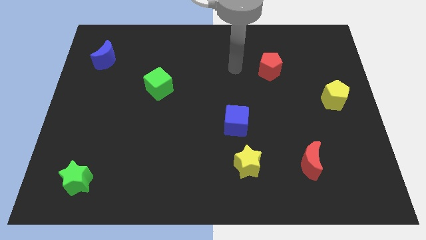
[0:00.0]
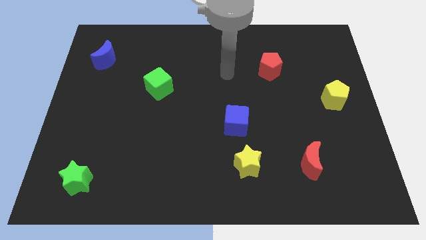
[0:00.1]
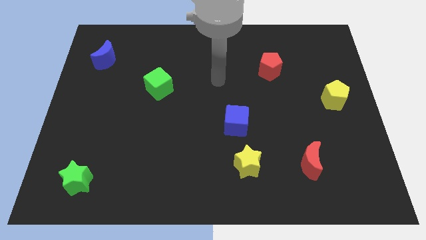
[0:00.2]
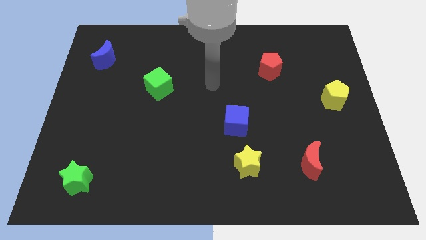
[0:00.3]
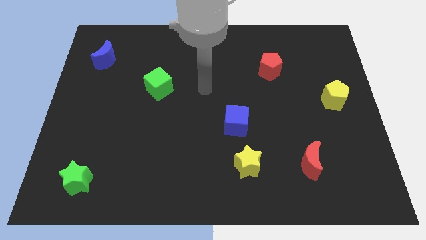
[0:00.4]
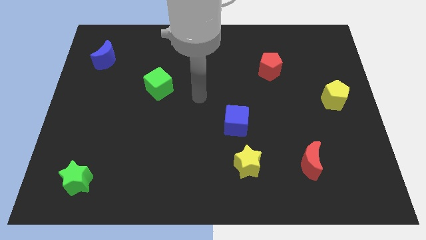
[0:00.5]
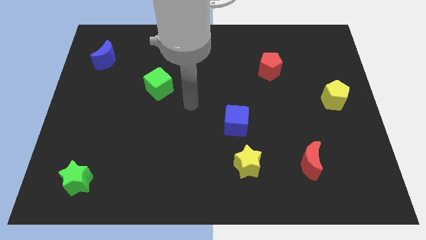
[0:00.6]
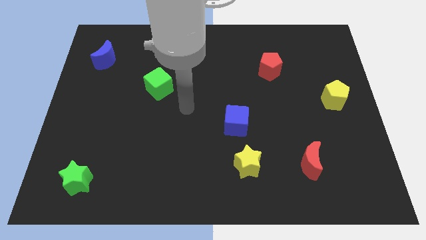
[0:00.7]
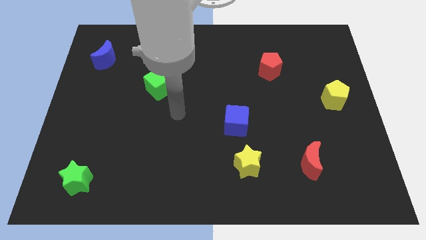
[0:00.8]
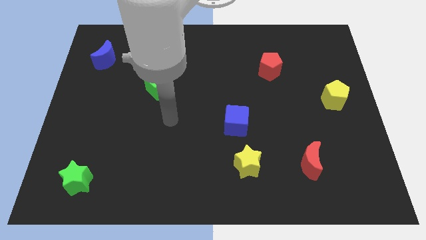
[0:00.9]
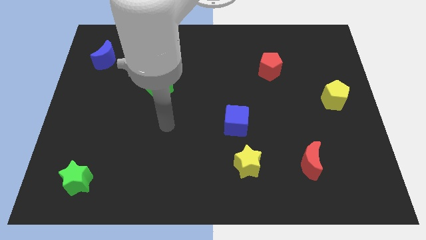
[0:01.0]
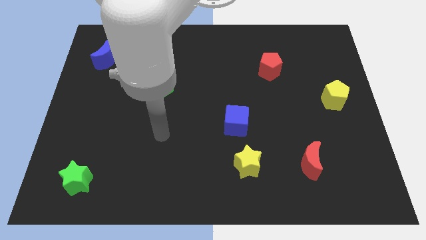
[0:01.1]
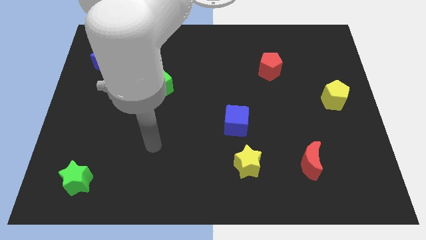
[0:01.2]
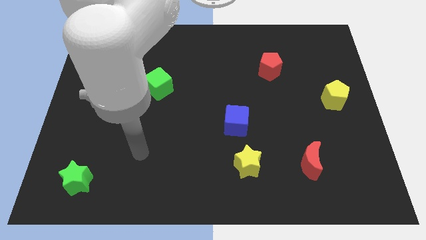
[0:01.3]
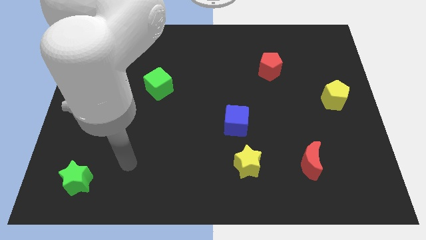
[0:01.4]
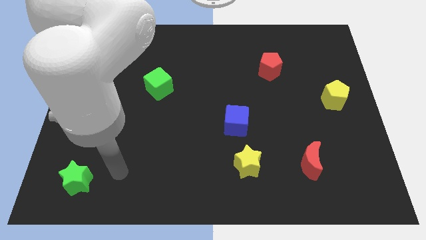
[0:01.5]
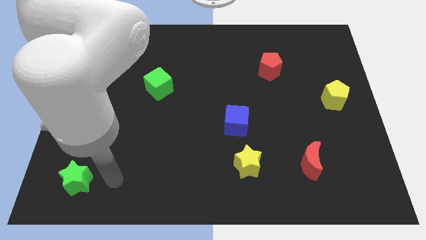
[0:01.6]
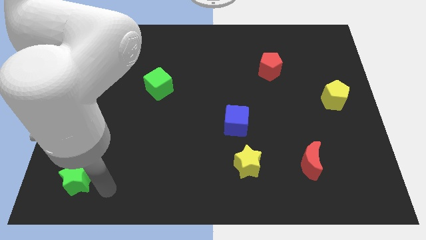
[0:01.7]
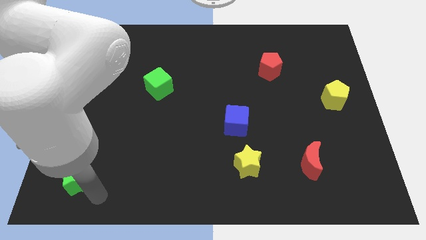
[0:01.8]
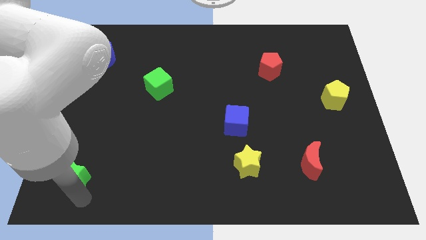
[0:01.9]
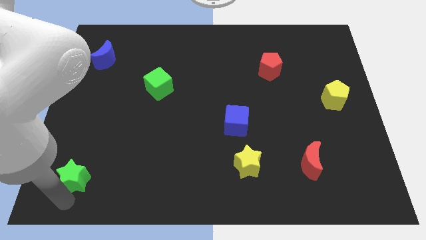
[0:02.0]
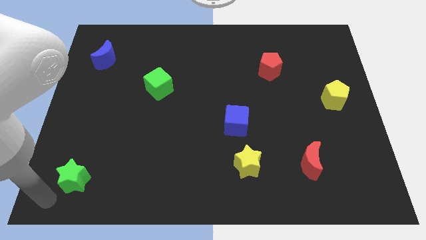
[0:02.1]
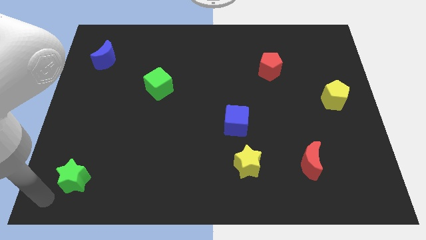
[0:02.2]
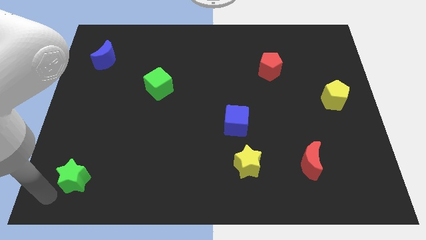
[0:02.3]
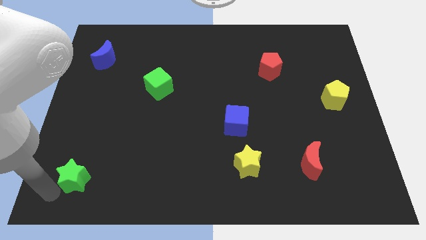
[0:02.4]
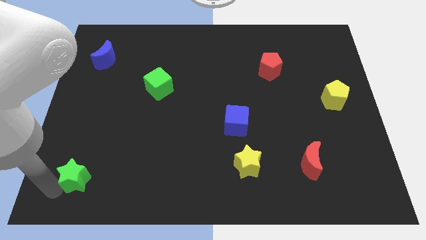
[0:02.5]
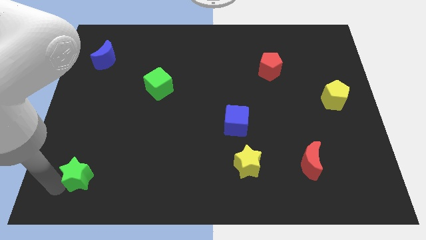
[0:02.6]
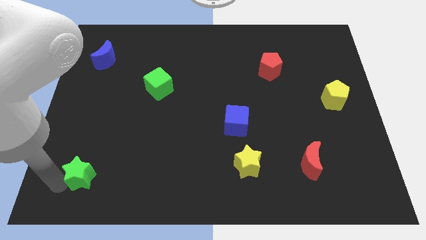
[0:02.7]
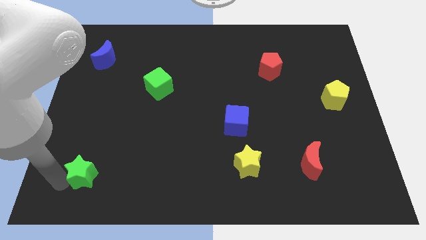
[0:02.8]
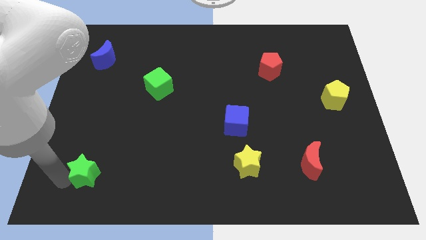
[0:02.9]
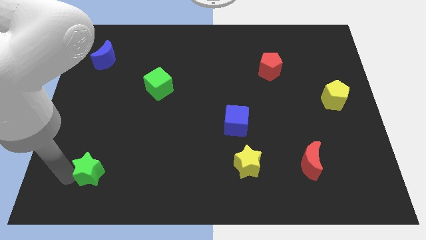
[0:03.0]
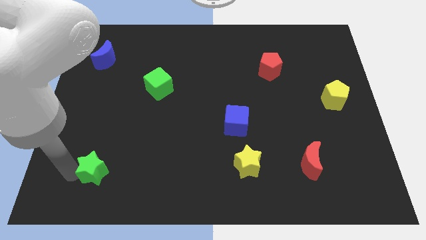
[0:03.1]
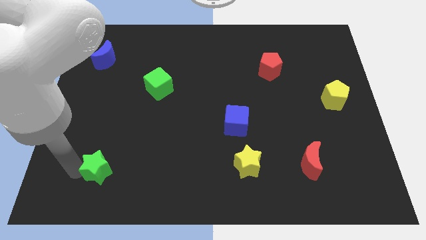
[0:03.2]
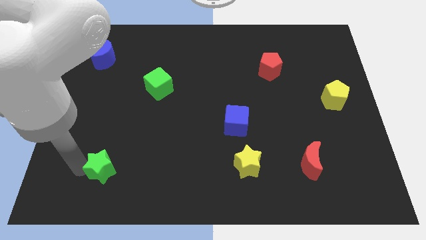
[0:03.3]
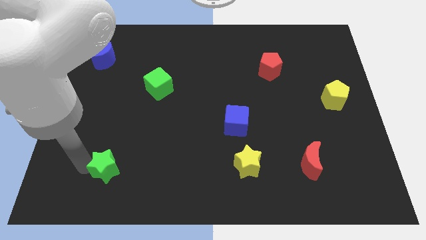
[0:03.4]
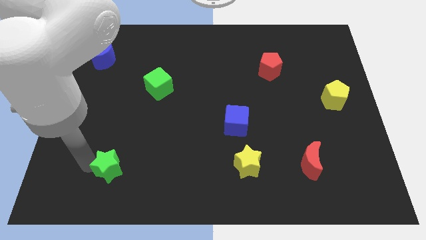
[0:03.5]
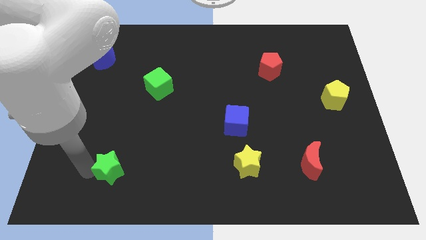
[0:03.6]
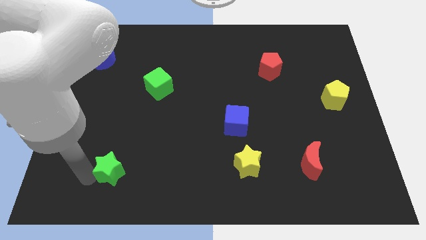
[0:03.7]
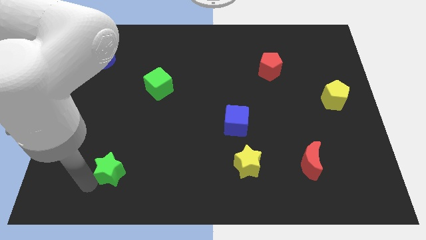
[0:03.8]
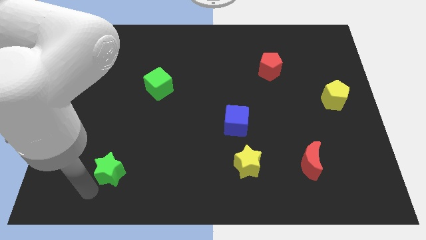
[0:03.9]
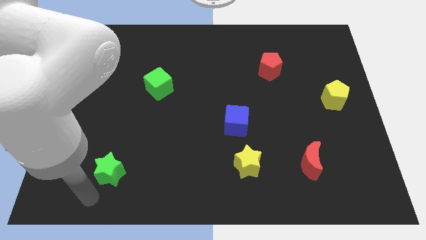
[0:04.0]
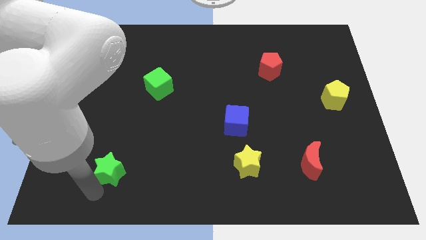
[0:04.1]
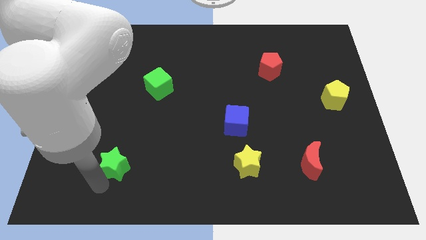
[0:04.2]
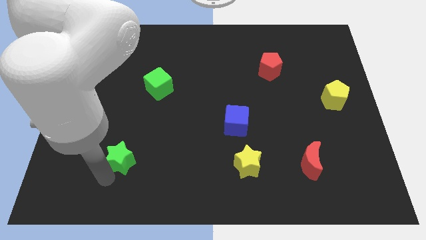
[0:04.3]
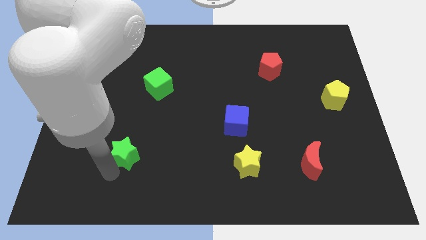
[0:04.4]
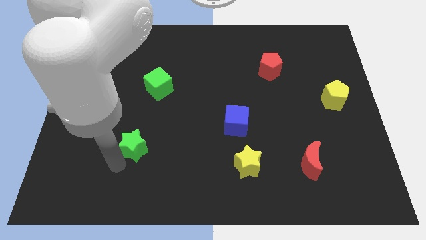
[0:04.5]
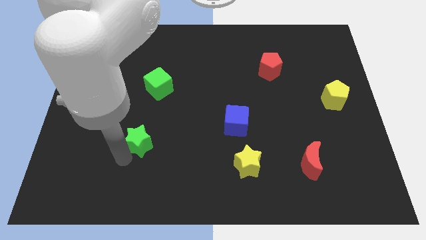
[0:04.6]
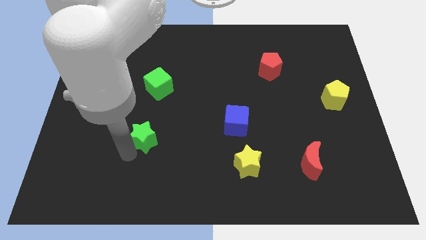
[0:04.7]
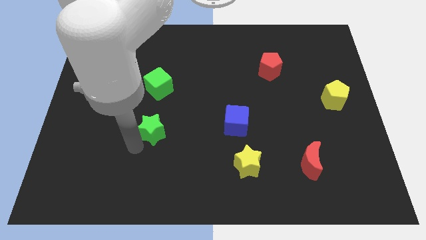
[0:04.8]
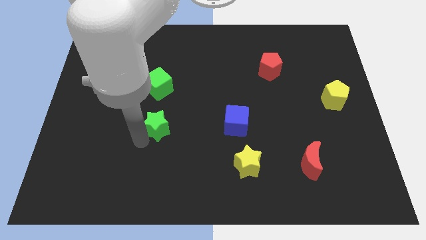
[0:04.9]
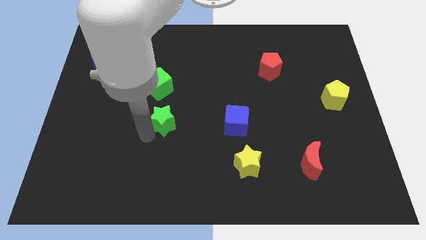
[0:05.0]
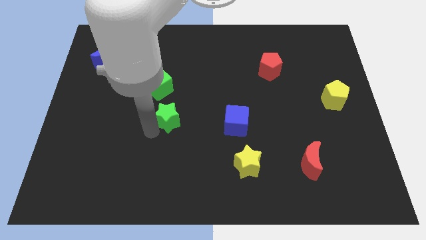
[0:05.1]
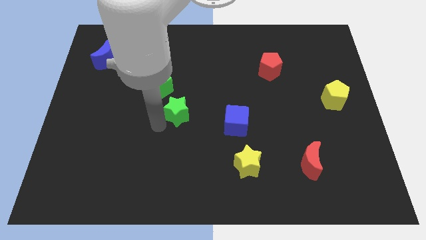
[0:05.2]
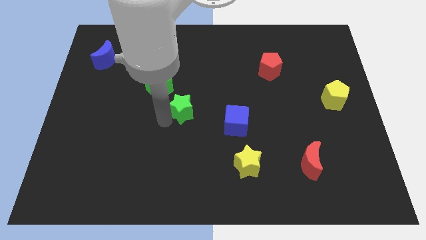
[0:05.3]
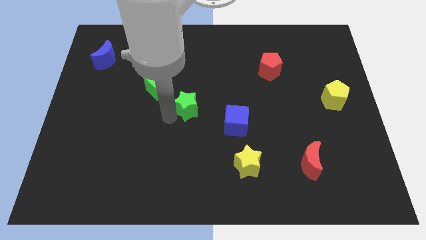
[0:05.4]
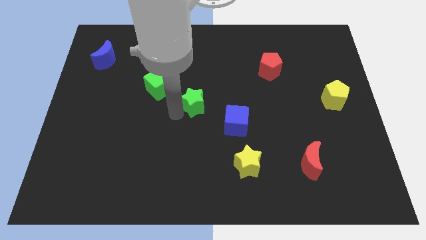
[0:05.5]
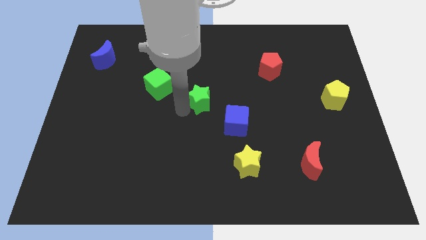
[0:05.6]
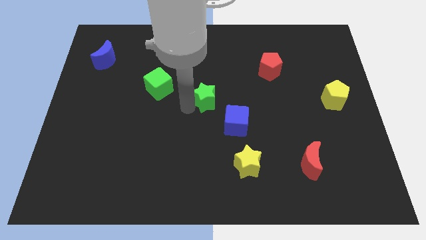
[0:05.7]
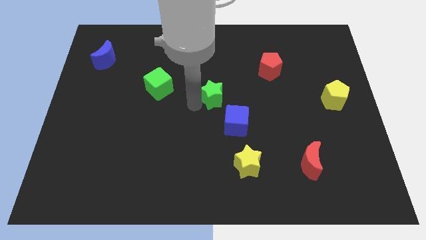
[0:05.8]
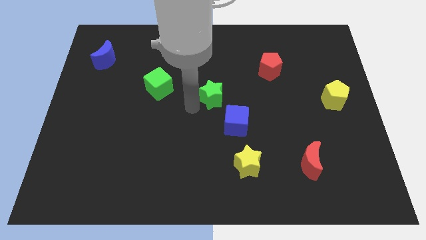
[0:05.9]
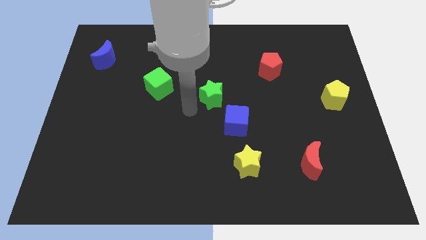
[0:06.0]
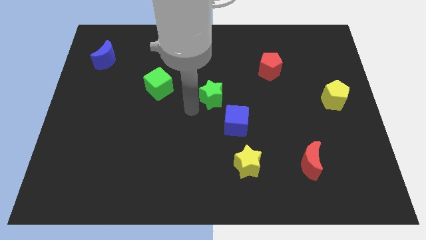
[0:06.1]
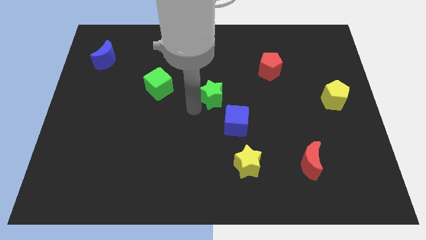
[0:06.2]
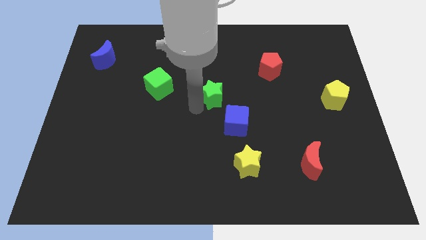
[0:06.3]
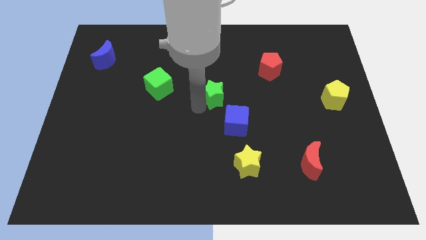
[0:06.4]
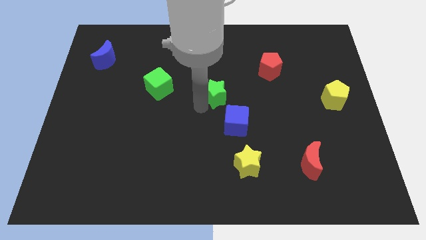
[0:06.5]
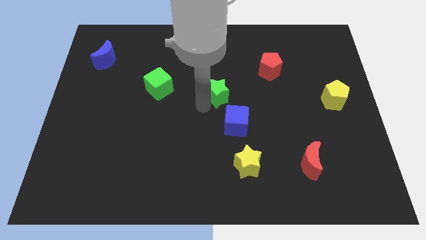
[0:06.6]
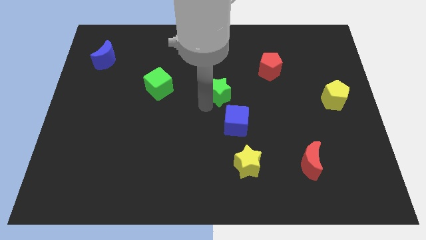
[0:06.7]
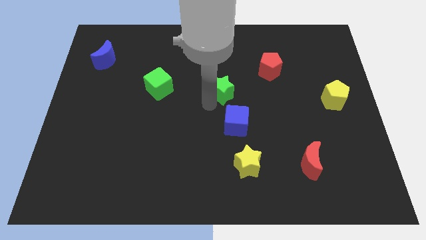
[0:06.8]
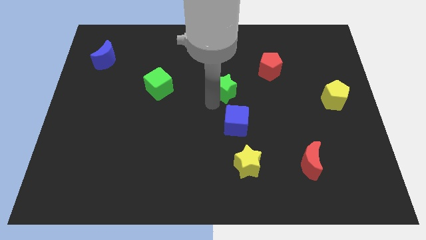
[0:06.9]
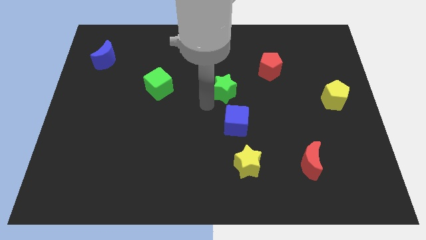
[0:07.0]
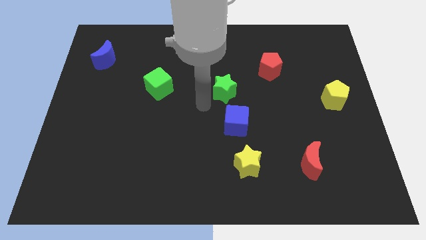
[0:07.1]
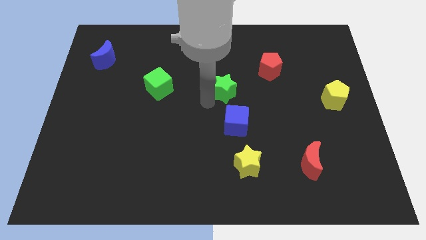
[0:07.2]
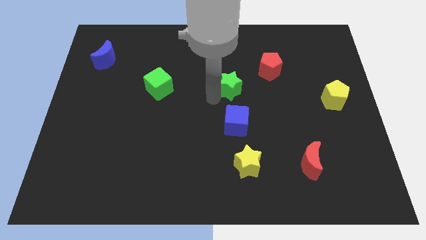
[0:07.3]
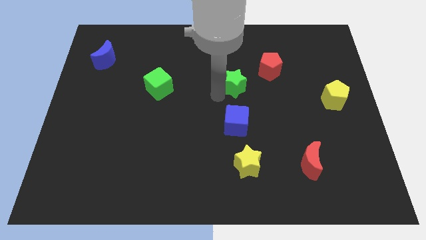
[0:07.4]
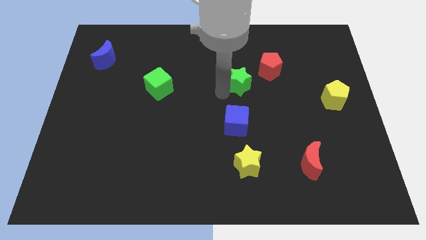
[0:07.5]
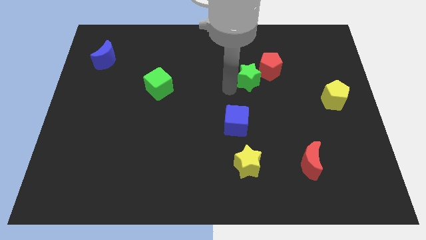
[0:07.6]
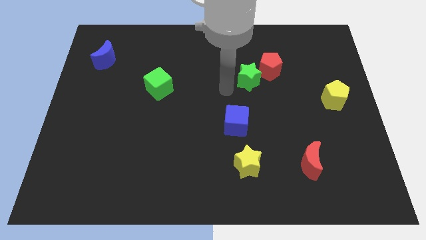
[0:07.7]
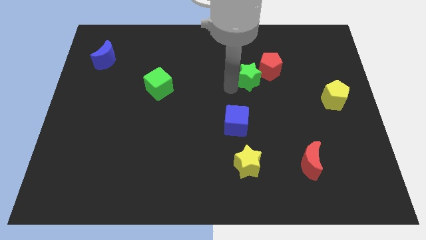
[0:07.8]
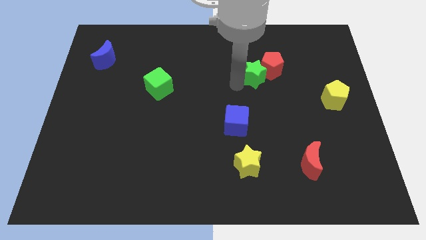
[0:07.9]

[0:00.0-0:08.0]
put the green star towards the red pentagon
